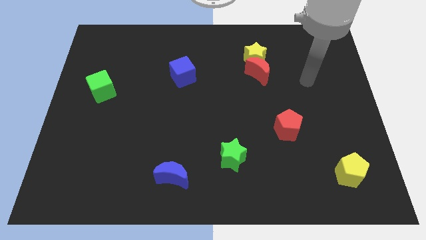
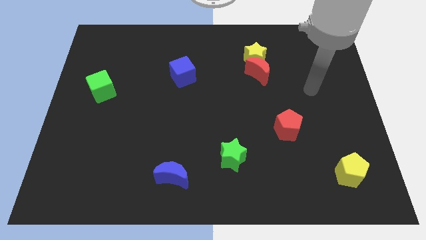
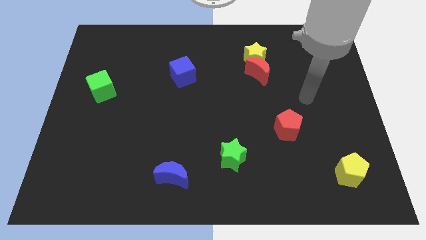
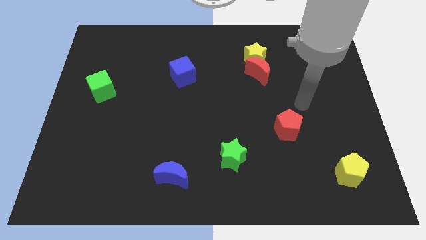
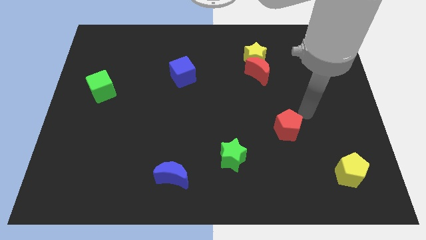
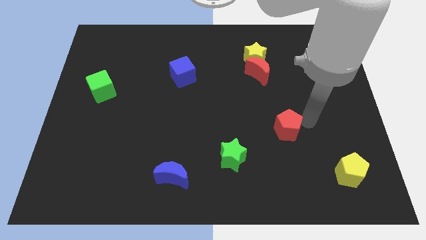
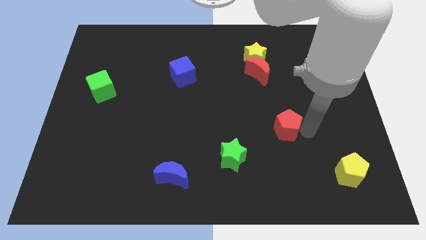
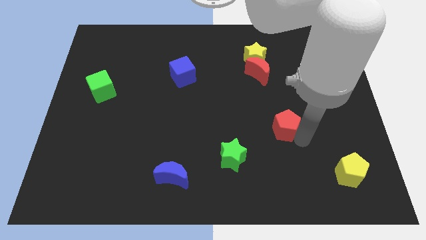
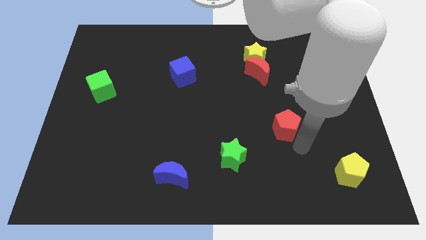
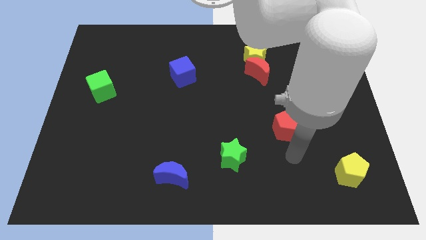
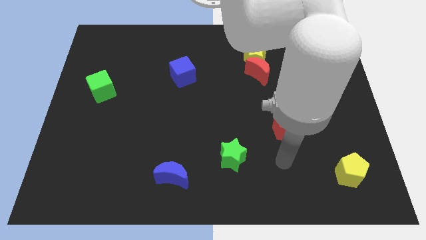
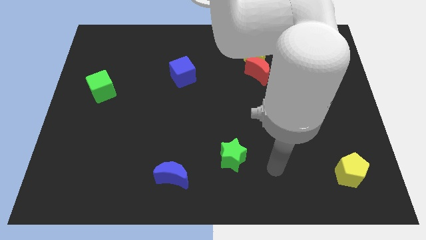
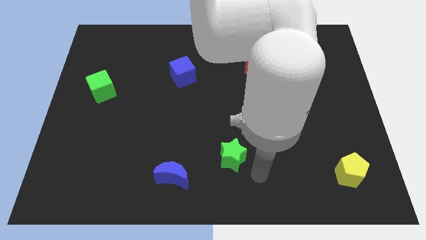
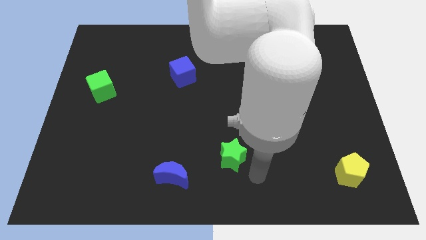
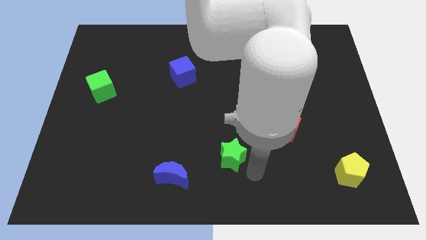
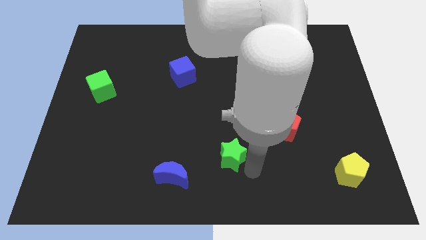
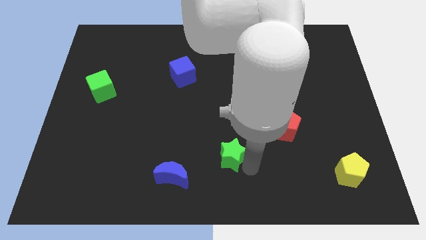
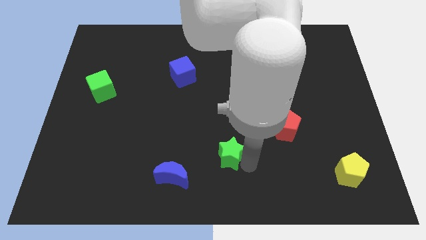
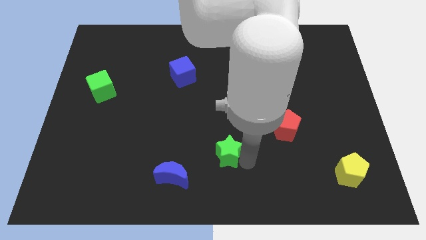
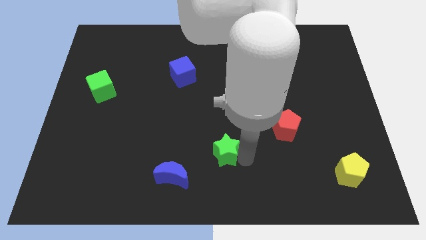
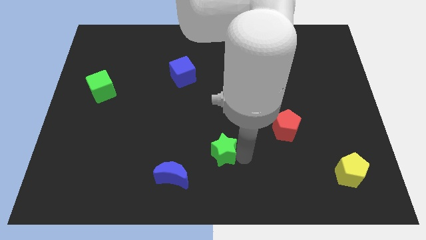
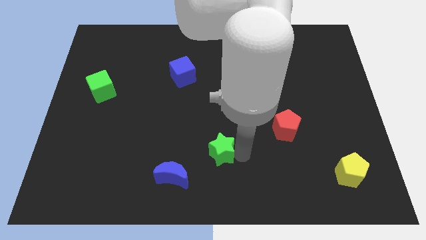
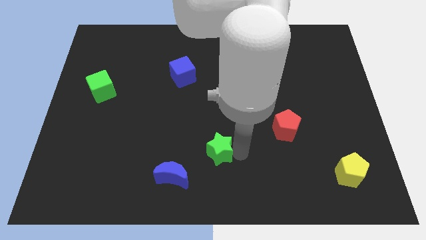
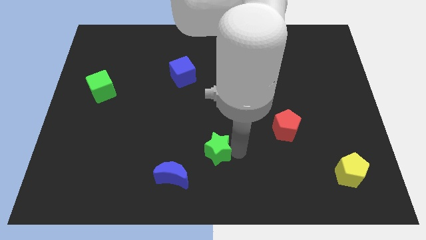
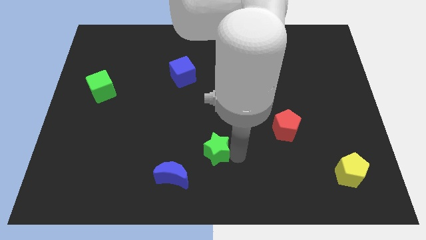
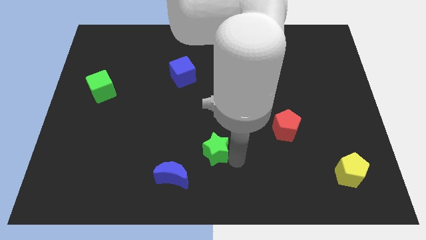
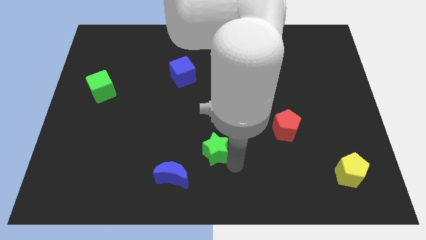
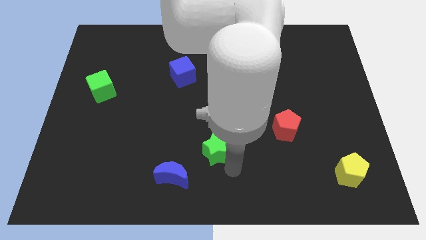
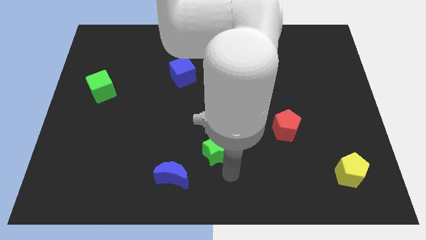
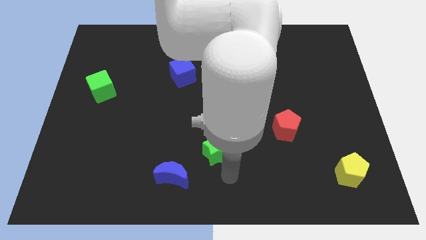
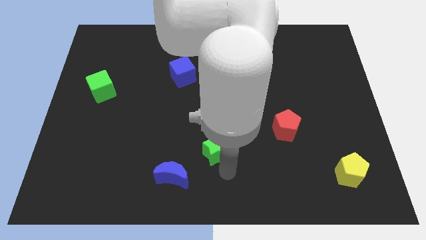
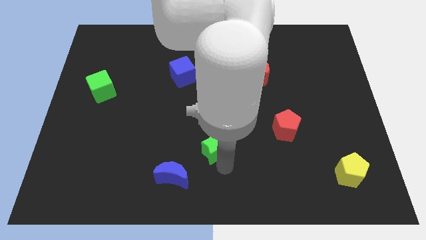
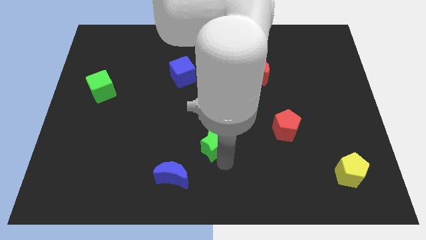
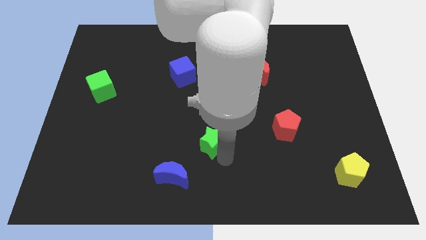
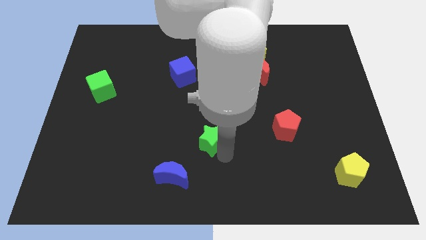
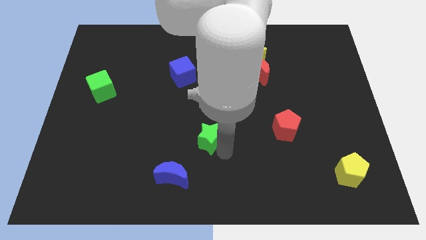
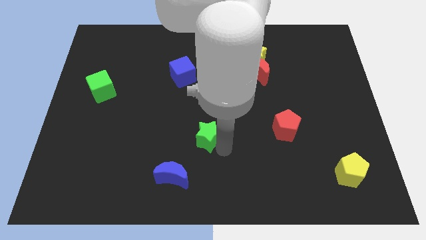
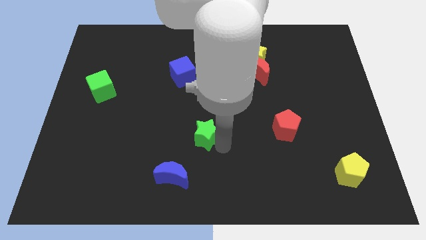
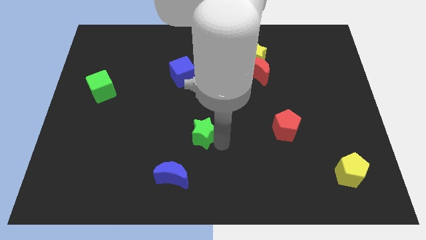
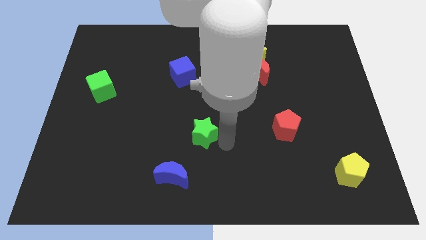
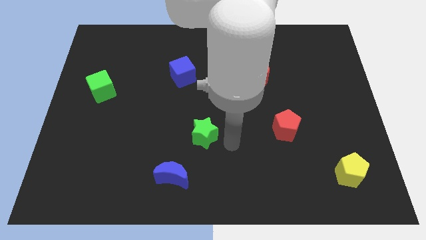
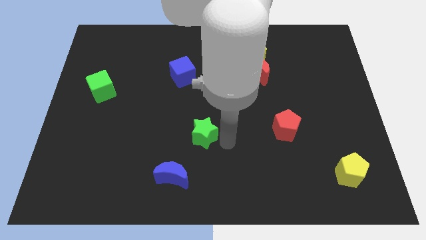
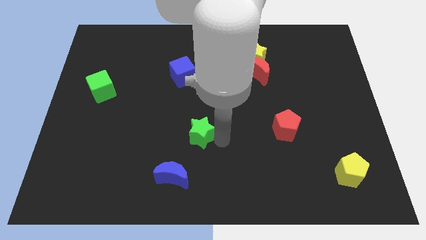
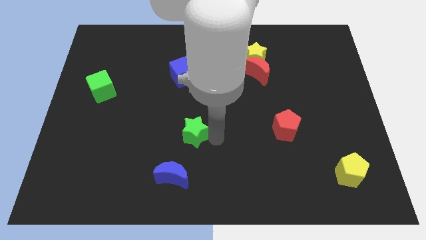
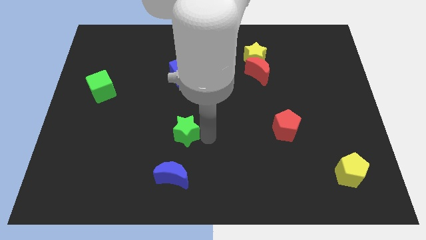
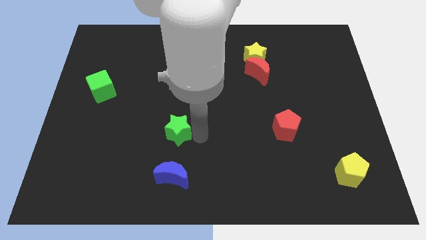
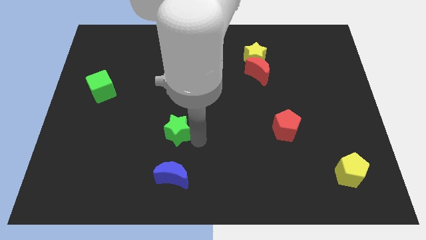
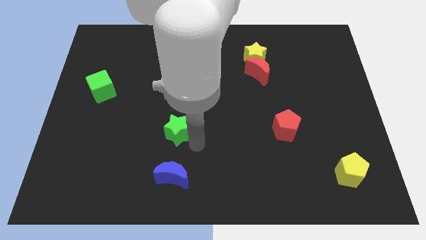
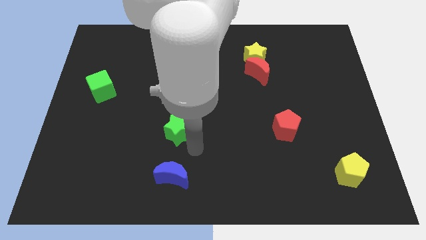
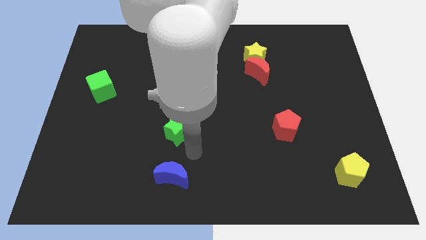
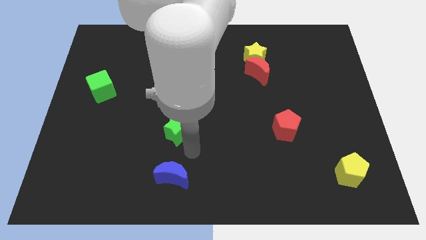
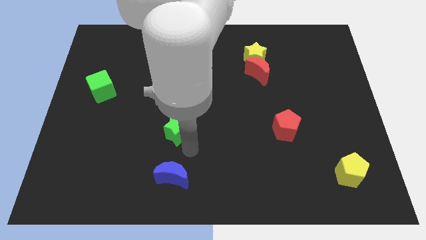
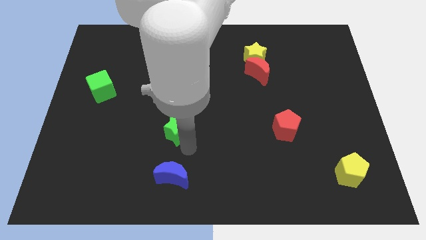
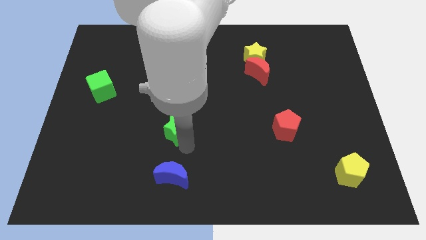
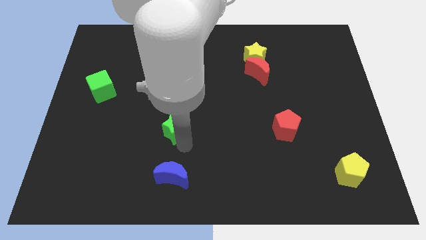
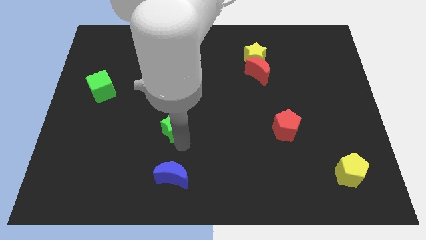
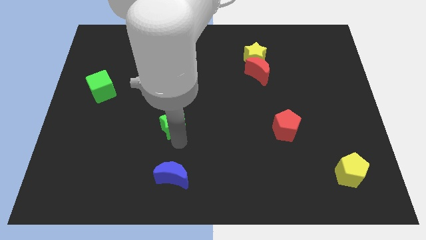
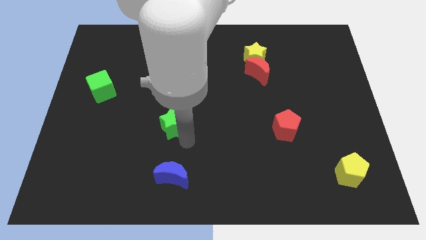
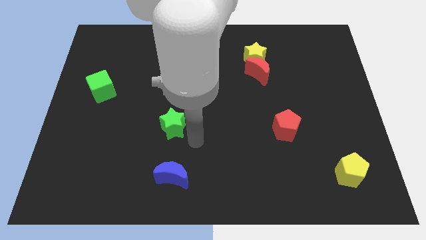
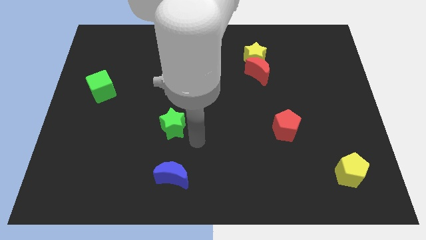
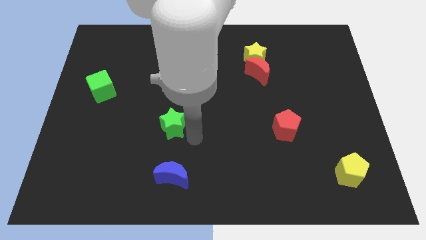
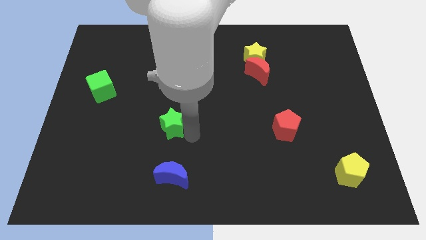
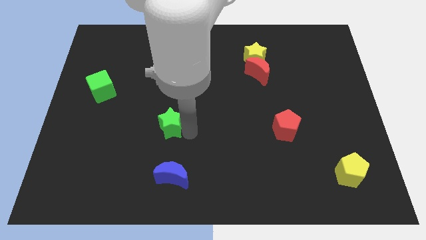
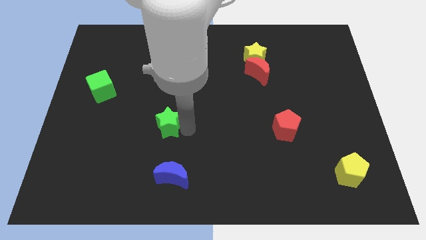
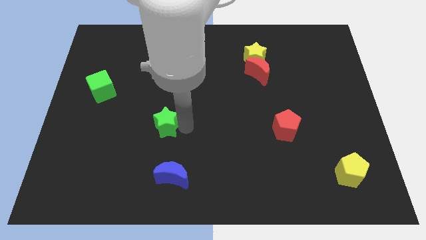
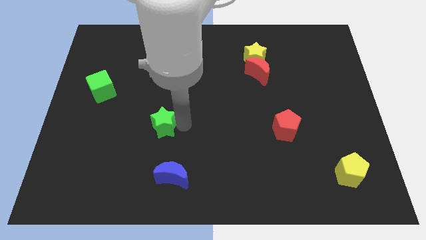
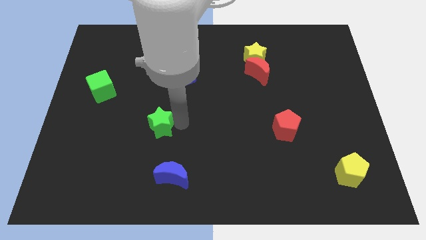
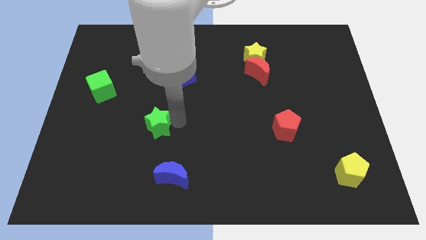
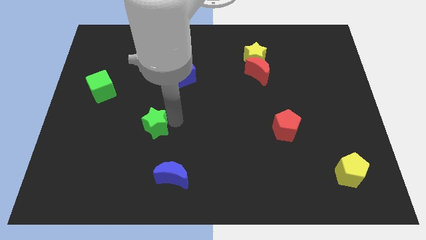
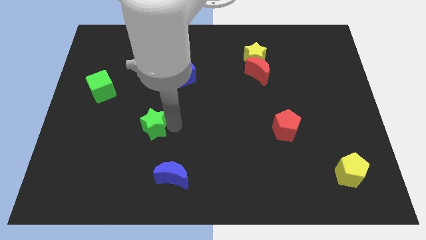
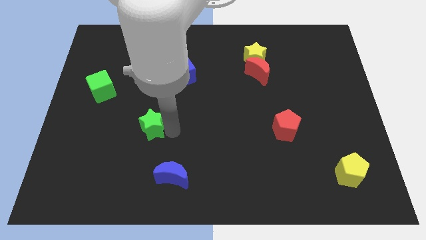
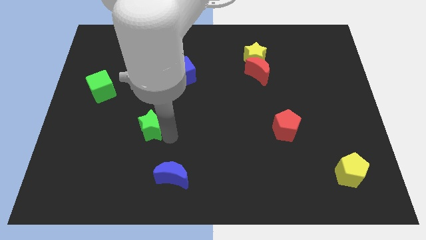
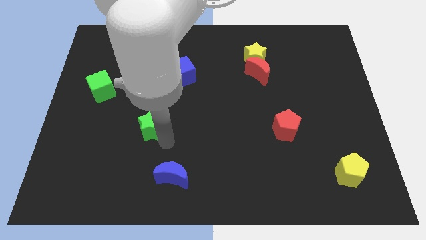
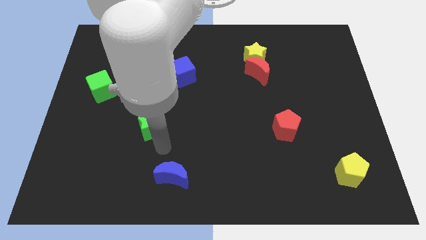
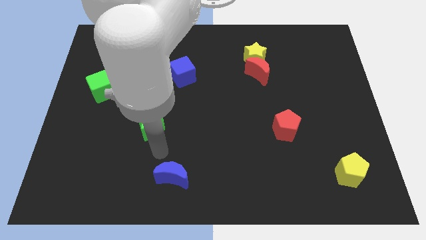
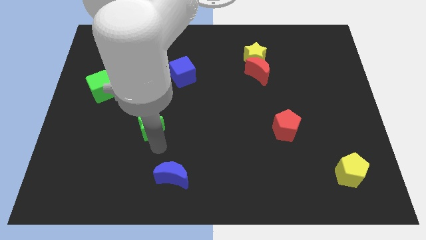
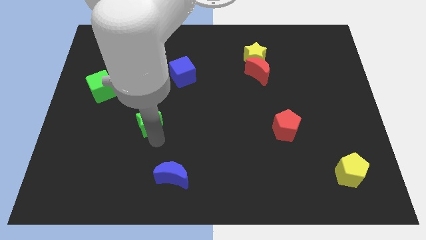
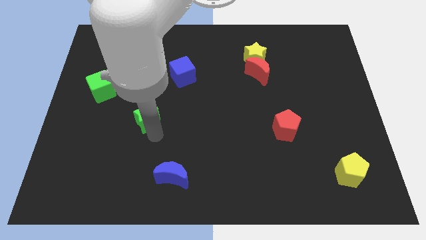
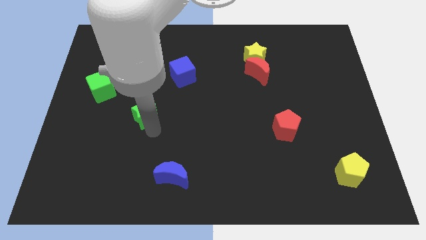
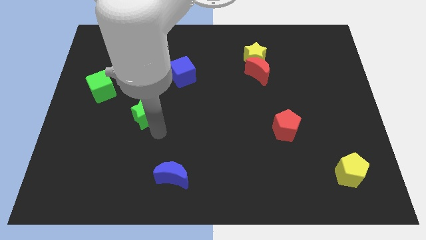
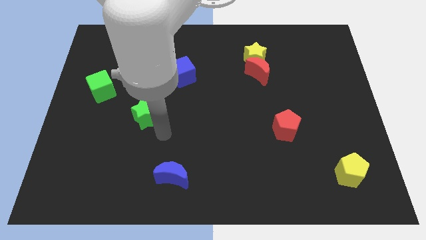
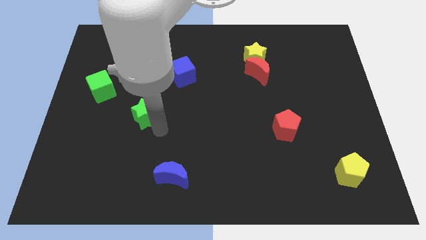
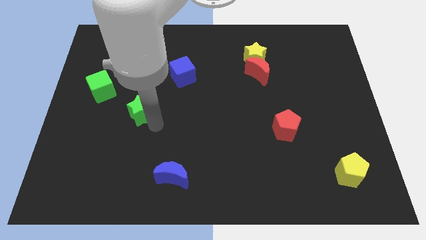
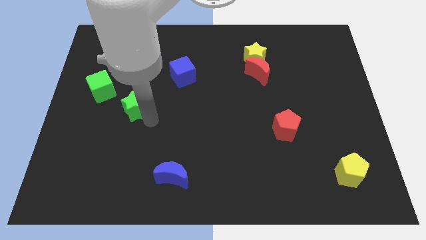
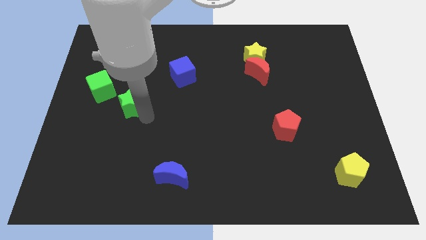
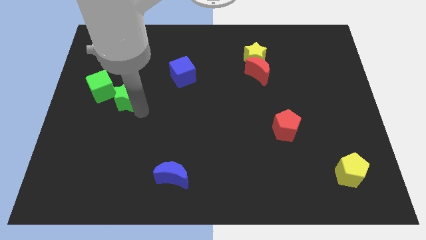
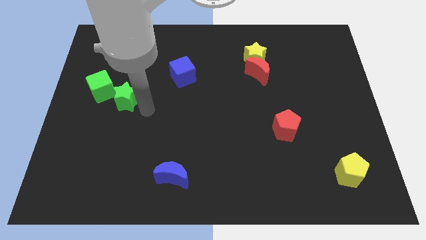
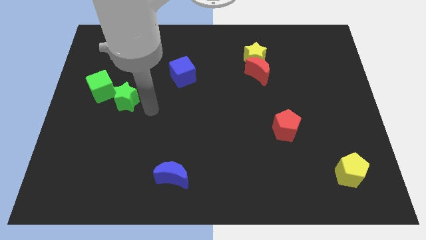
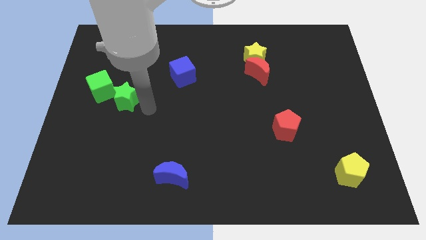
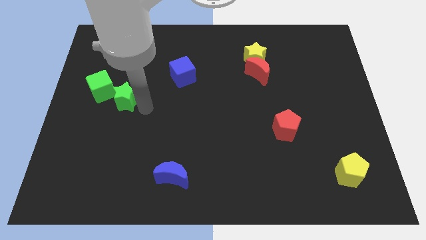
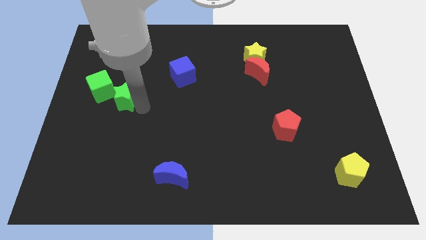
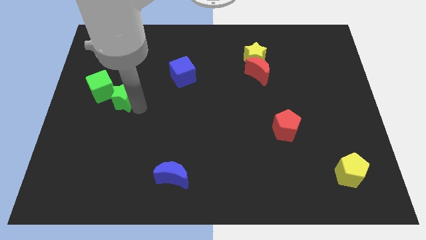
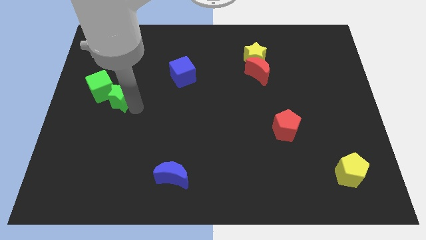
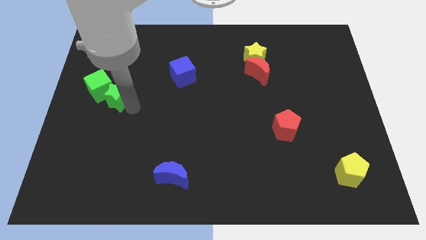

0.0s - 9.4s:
put the green star to the green cube
